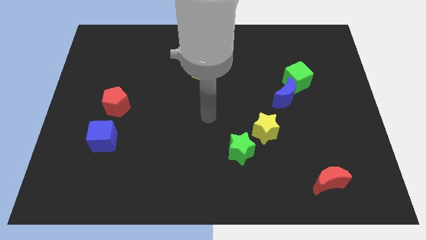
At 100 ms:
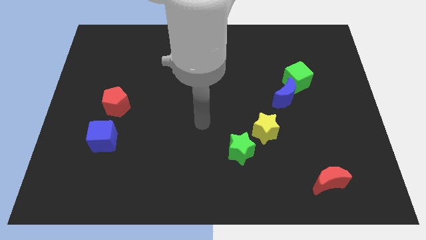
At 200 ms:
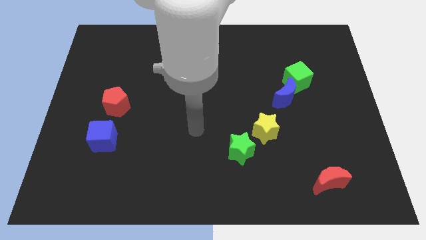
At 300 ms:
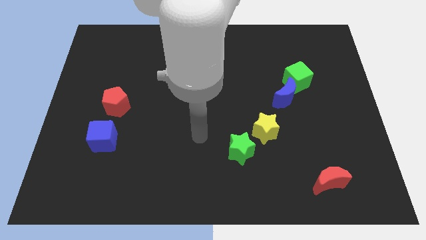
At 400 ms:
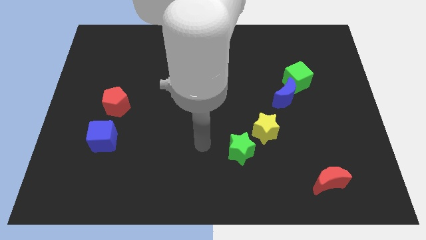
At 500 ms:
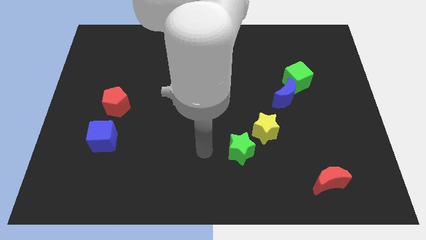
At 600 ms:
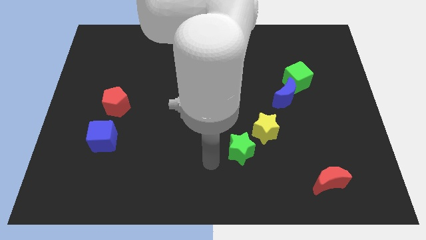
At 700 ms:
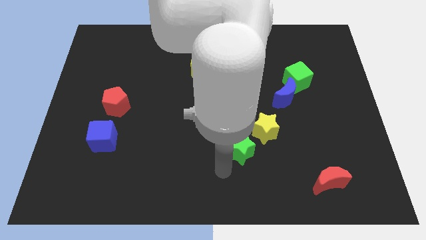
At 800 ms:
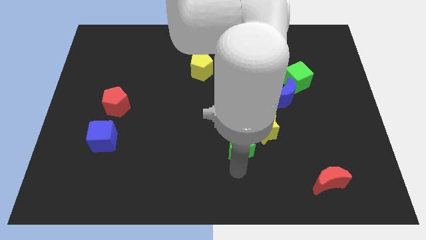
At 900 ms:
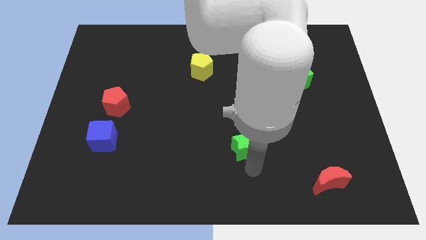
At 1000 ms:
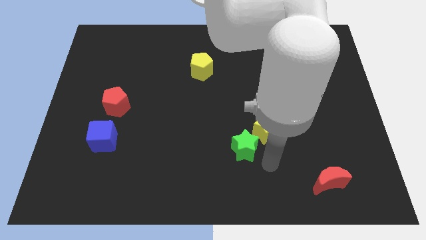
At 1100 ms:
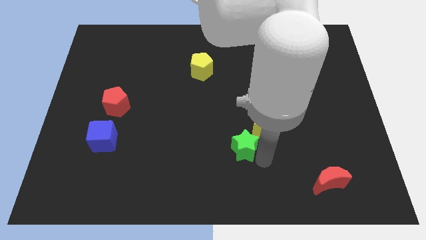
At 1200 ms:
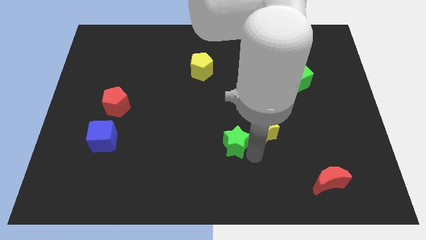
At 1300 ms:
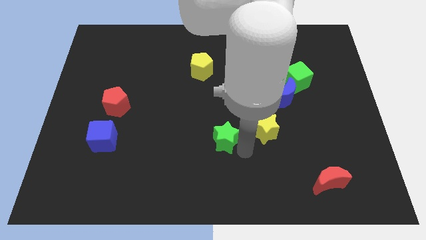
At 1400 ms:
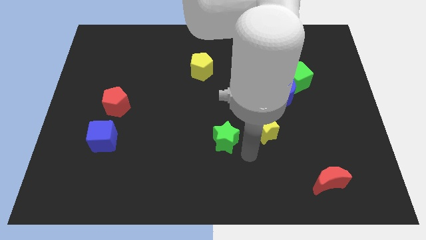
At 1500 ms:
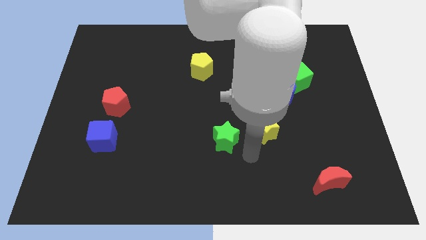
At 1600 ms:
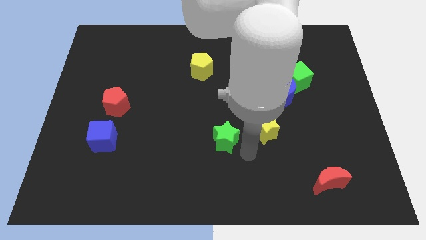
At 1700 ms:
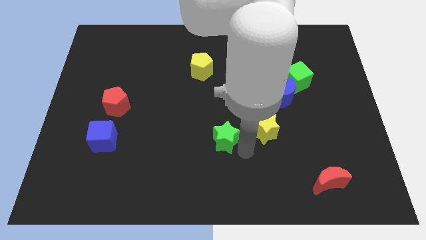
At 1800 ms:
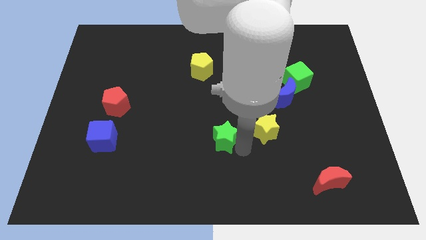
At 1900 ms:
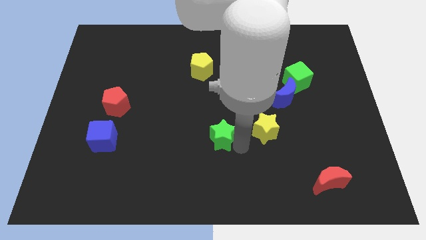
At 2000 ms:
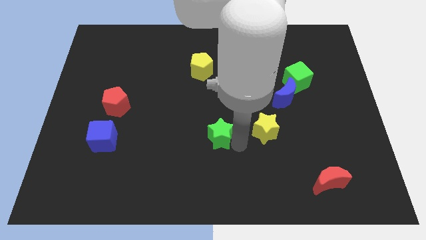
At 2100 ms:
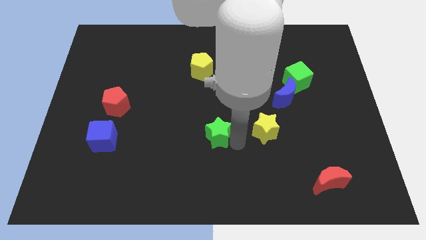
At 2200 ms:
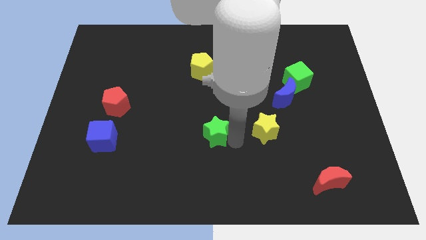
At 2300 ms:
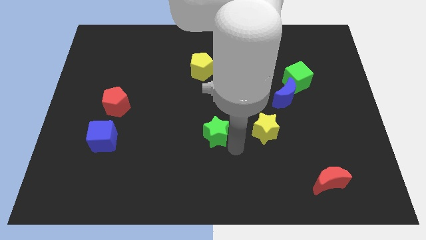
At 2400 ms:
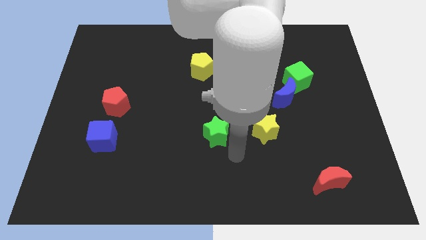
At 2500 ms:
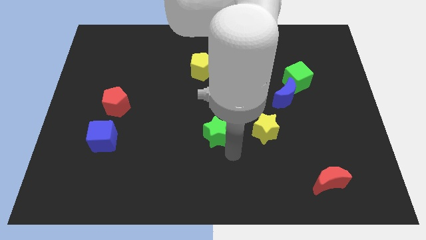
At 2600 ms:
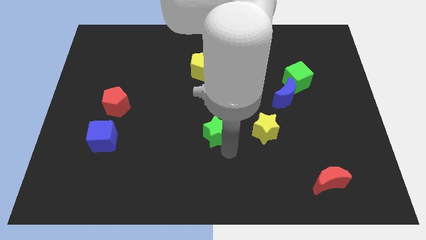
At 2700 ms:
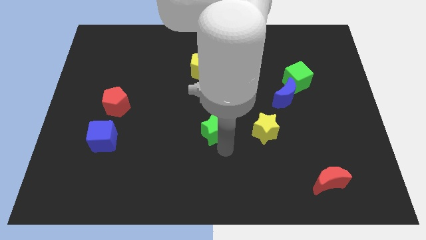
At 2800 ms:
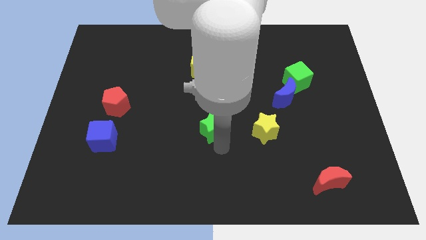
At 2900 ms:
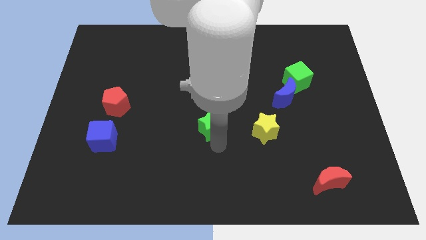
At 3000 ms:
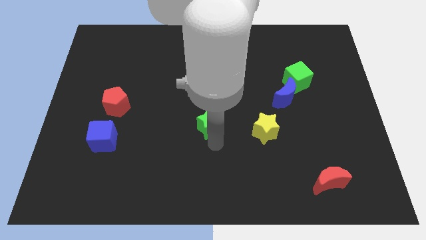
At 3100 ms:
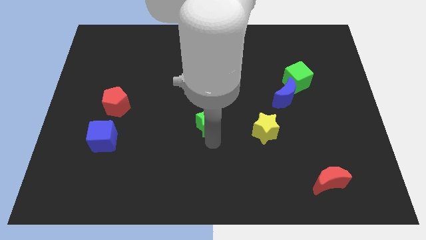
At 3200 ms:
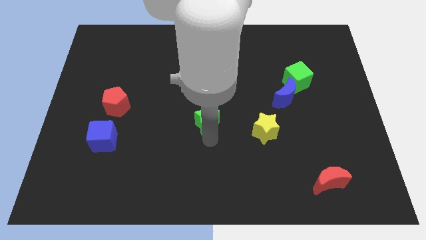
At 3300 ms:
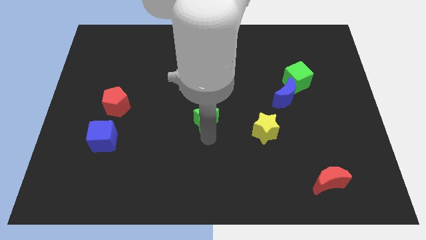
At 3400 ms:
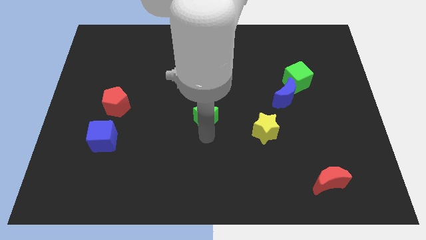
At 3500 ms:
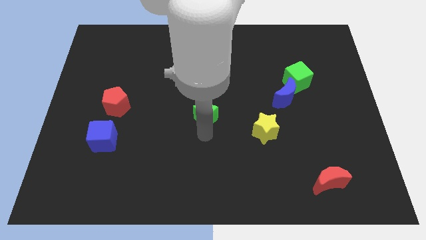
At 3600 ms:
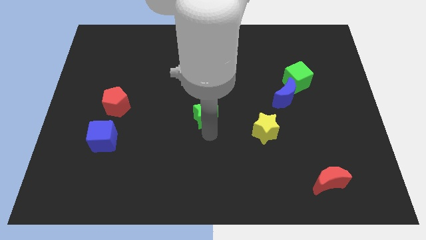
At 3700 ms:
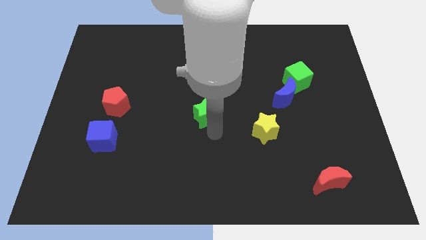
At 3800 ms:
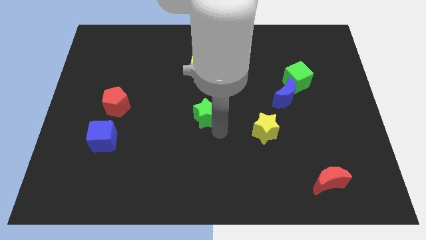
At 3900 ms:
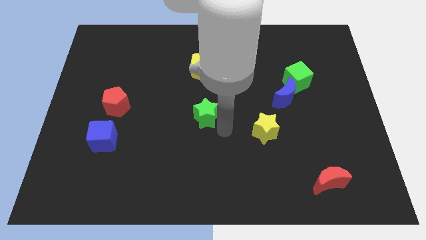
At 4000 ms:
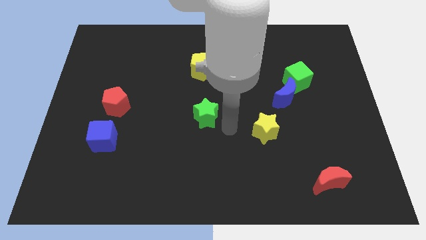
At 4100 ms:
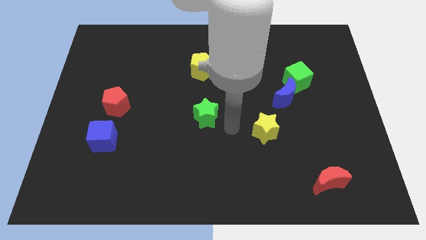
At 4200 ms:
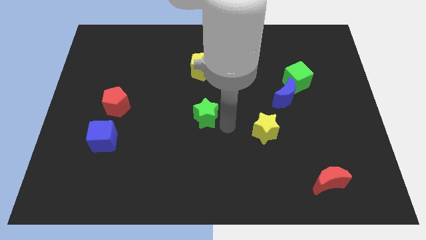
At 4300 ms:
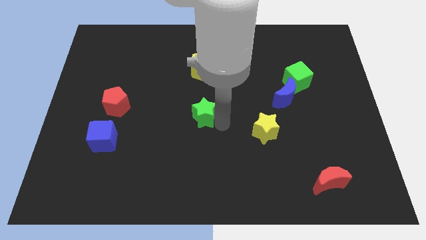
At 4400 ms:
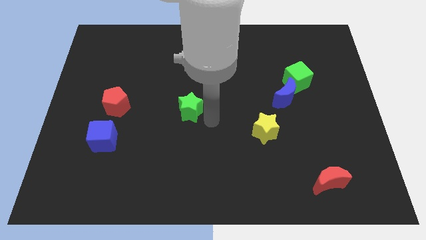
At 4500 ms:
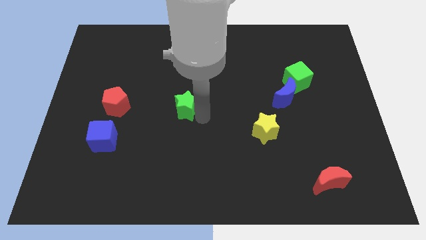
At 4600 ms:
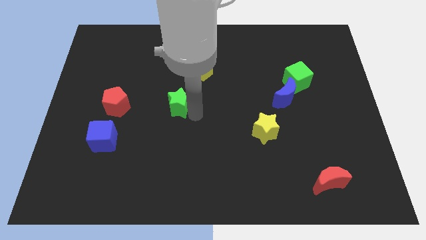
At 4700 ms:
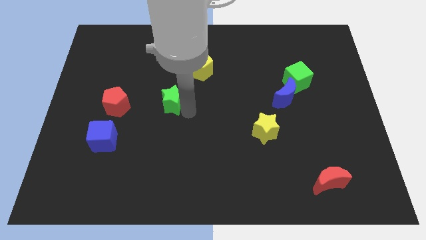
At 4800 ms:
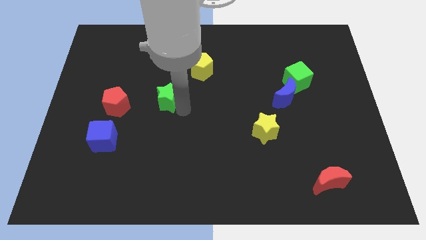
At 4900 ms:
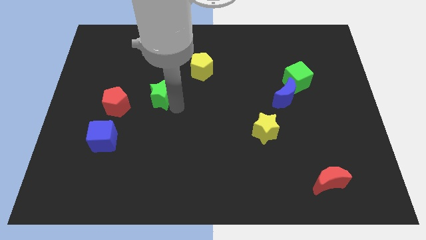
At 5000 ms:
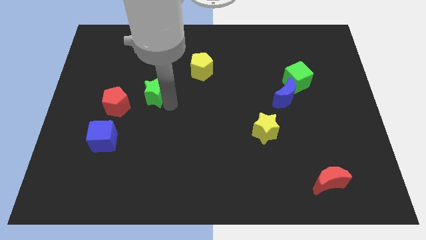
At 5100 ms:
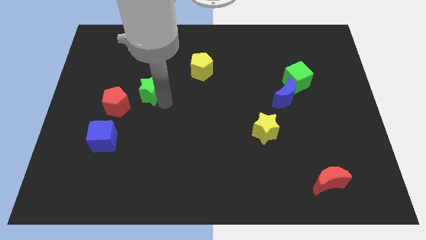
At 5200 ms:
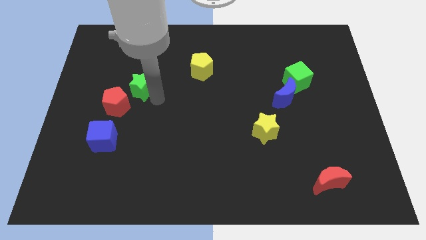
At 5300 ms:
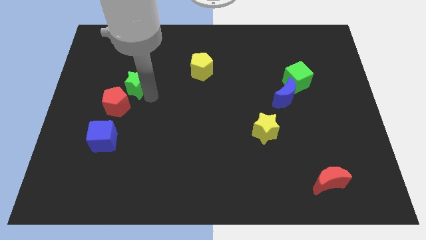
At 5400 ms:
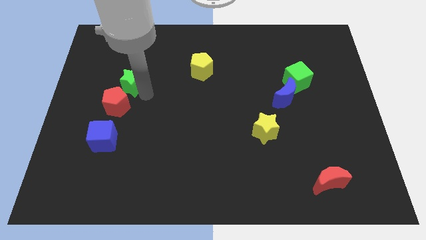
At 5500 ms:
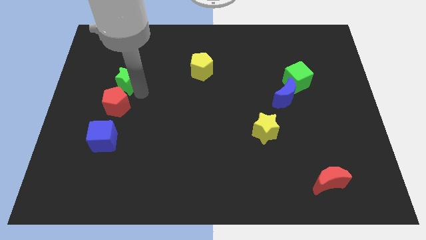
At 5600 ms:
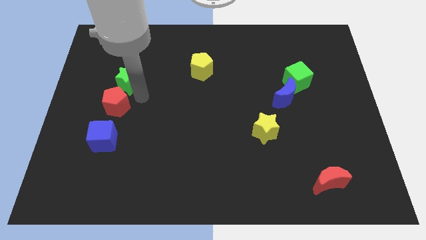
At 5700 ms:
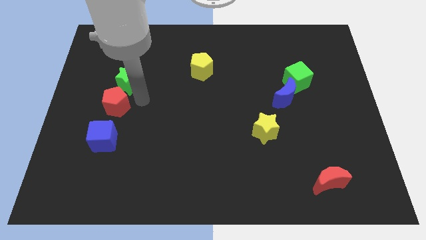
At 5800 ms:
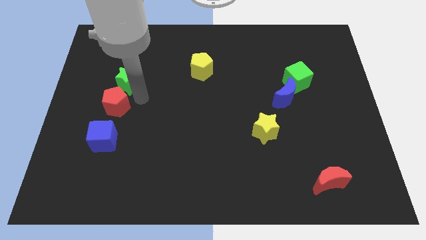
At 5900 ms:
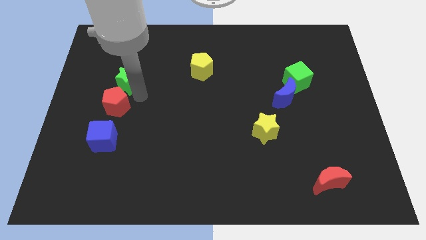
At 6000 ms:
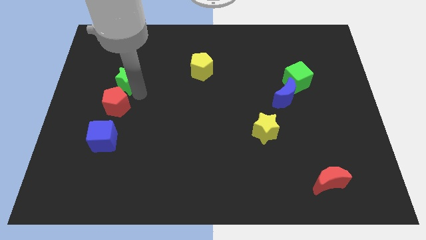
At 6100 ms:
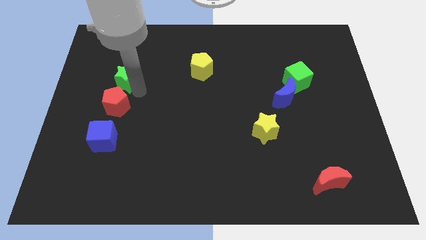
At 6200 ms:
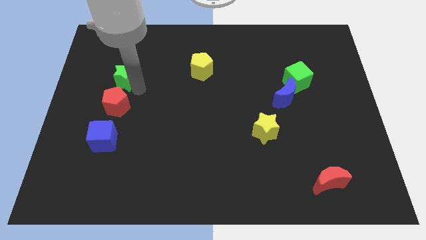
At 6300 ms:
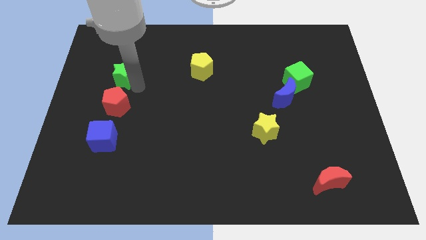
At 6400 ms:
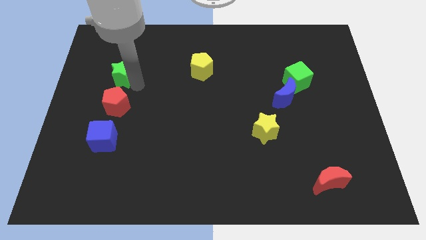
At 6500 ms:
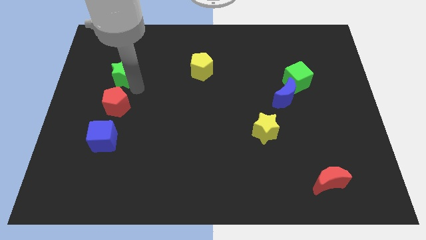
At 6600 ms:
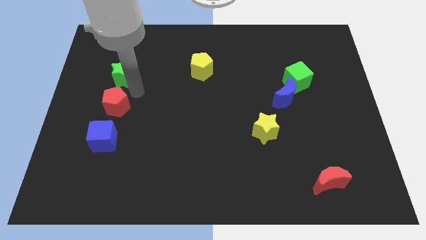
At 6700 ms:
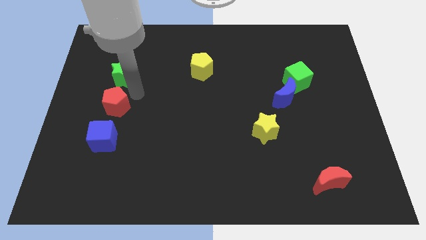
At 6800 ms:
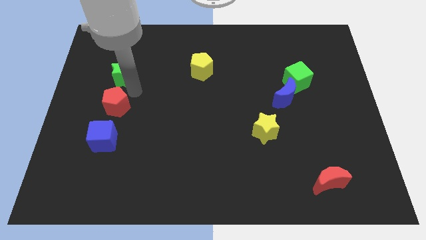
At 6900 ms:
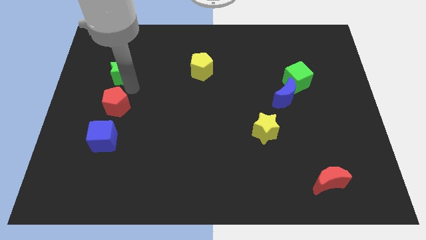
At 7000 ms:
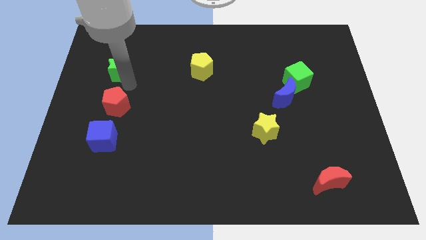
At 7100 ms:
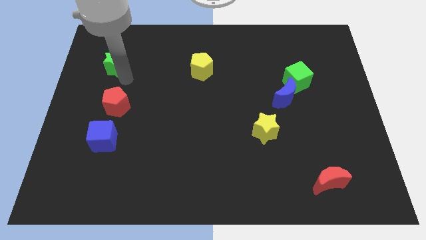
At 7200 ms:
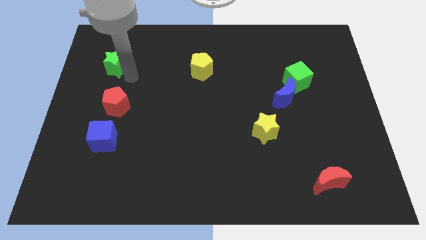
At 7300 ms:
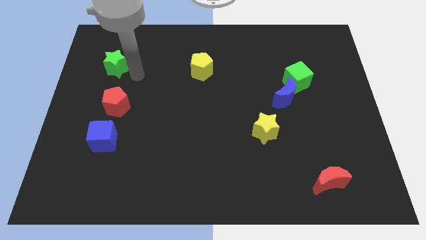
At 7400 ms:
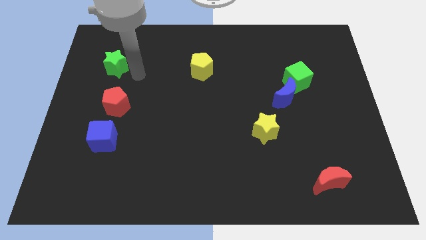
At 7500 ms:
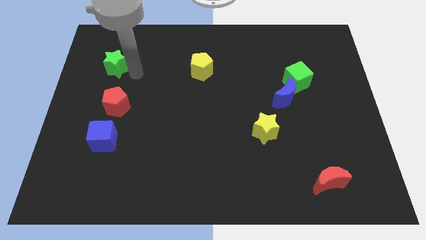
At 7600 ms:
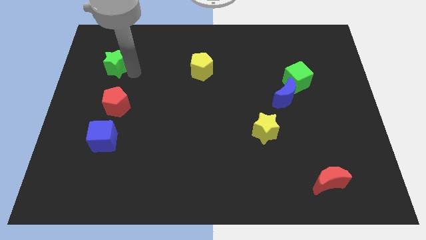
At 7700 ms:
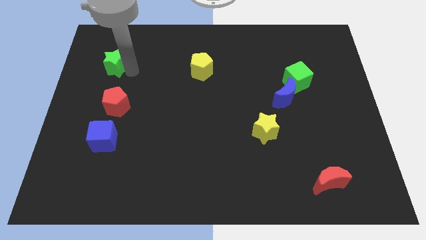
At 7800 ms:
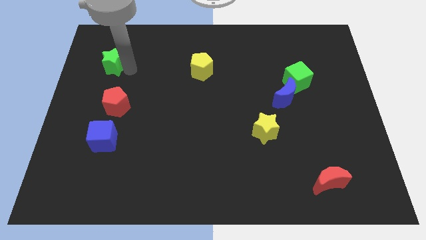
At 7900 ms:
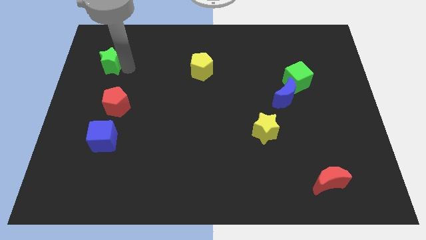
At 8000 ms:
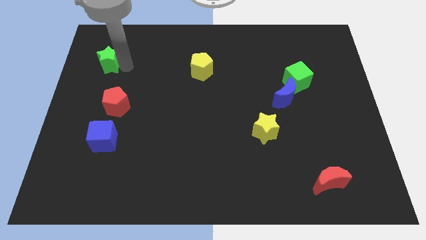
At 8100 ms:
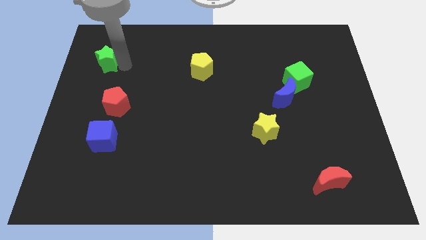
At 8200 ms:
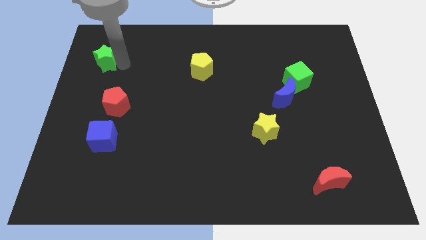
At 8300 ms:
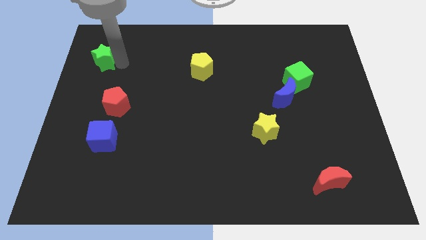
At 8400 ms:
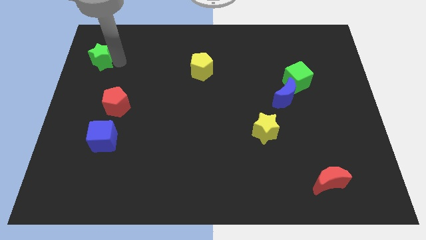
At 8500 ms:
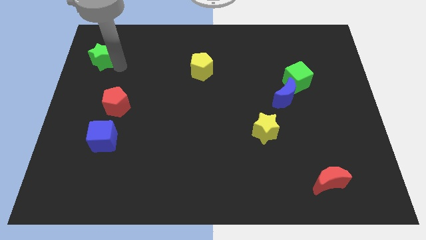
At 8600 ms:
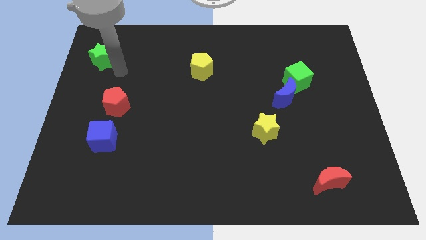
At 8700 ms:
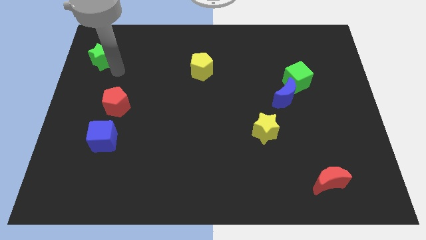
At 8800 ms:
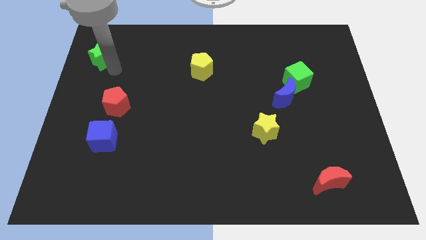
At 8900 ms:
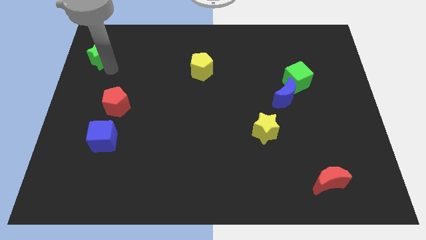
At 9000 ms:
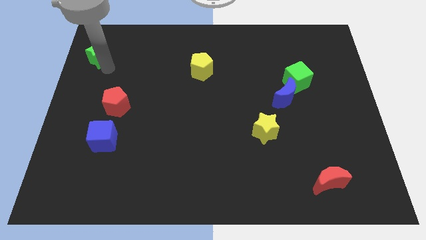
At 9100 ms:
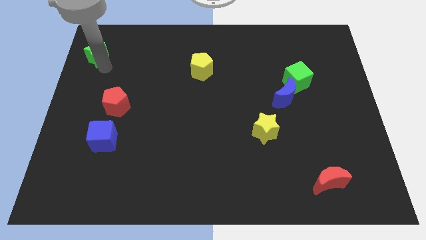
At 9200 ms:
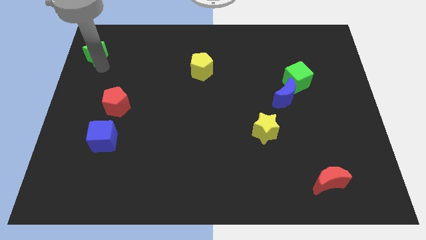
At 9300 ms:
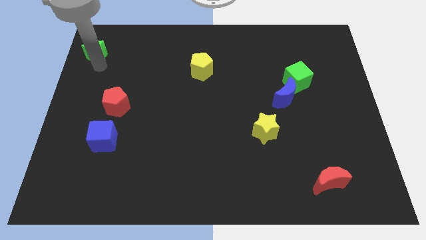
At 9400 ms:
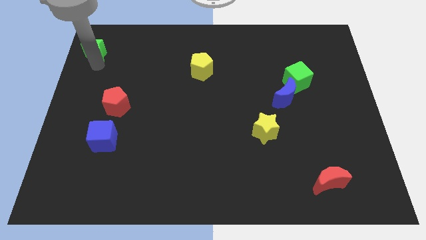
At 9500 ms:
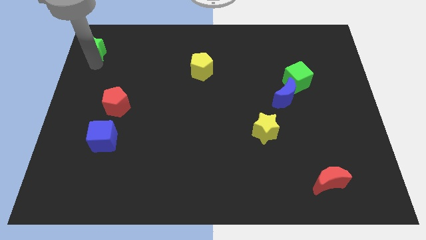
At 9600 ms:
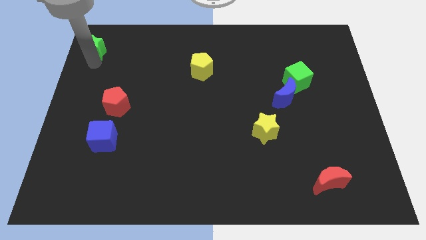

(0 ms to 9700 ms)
push the green star to the top left corner
